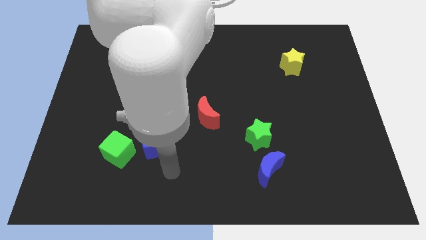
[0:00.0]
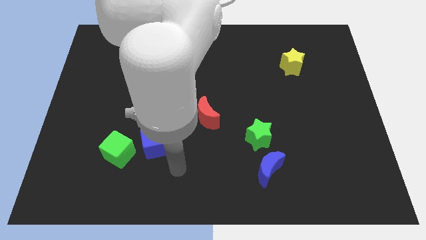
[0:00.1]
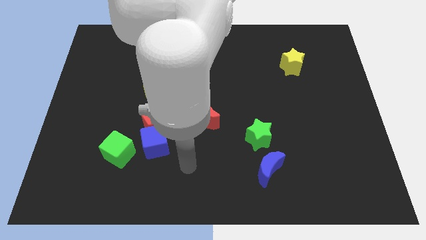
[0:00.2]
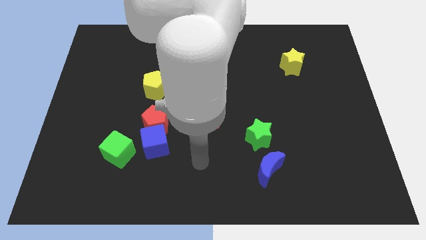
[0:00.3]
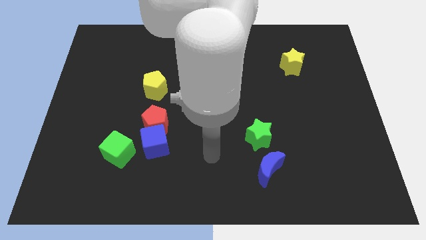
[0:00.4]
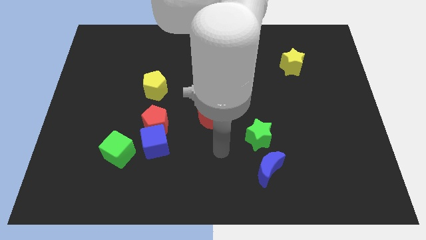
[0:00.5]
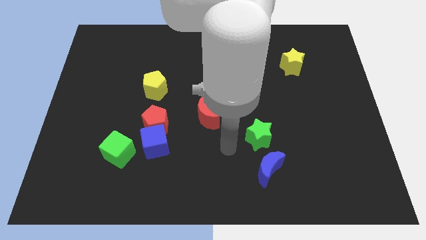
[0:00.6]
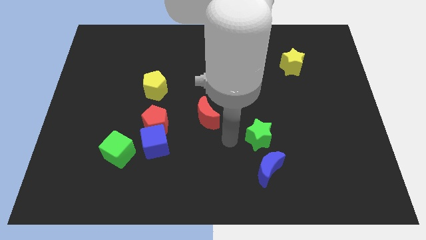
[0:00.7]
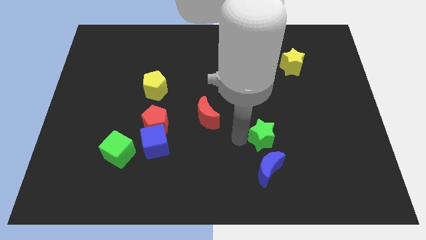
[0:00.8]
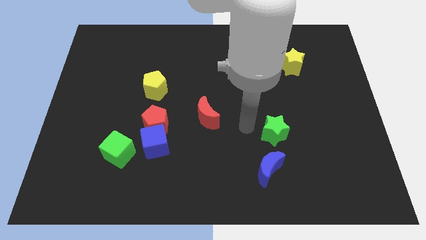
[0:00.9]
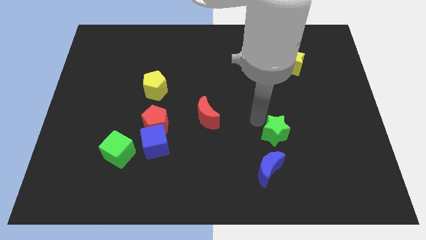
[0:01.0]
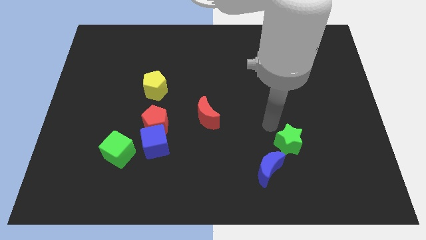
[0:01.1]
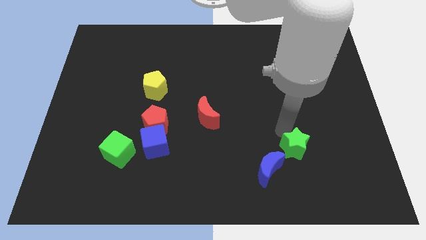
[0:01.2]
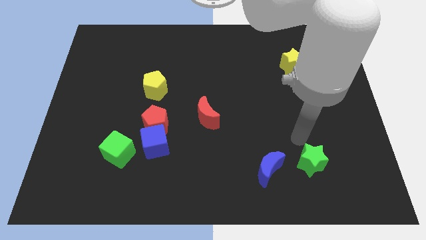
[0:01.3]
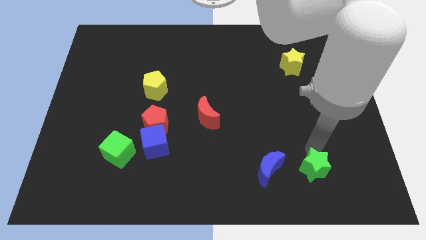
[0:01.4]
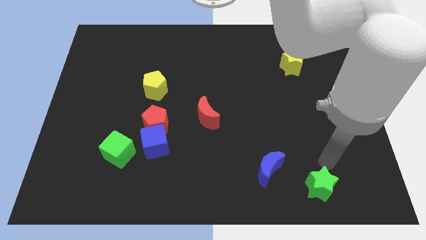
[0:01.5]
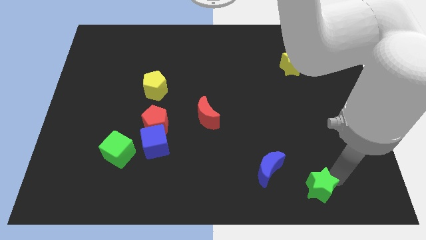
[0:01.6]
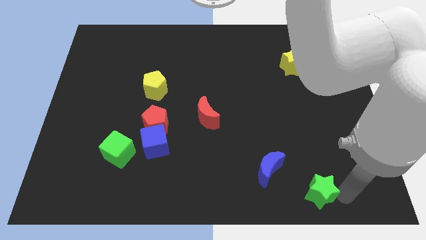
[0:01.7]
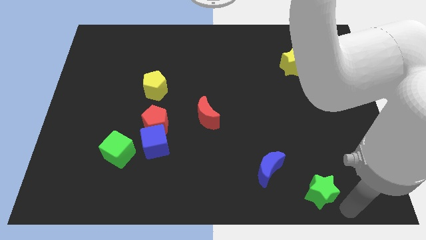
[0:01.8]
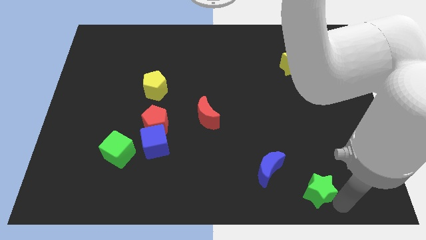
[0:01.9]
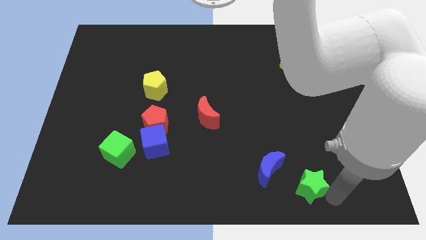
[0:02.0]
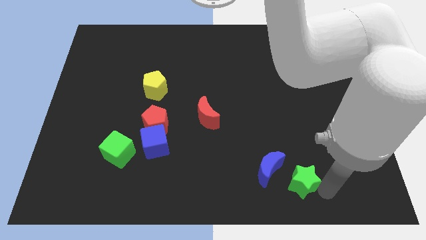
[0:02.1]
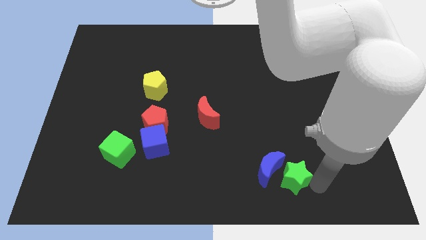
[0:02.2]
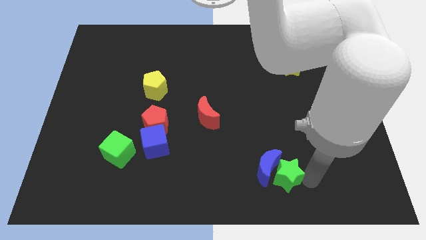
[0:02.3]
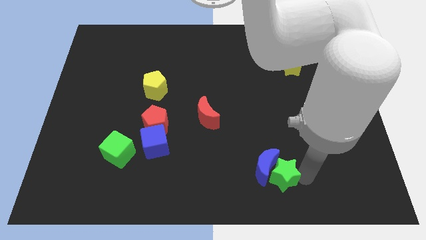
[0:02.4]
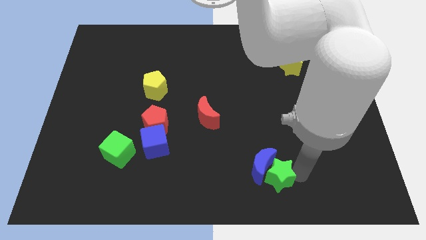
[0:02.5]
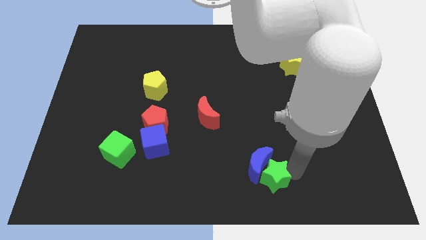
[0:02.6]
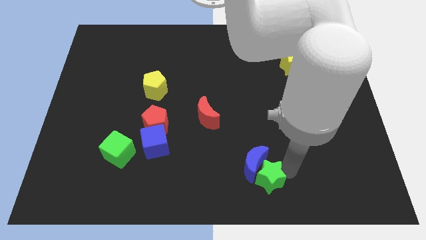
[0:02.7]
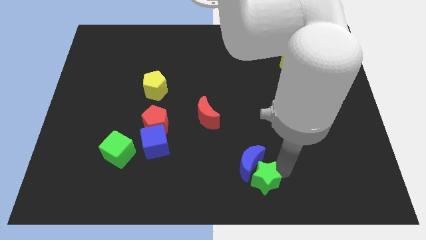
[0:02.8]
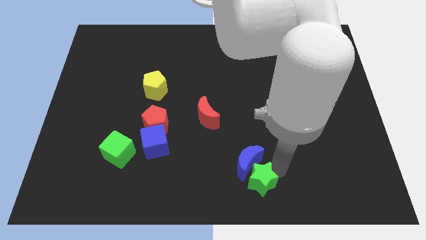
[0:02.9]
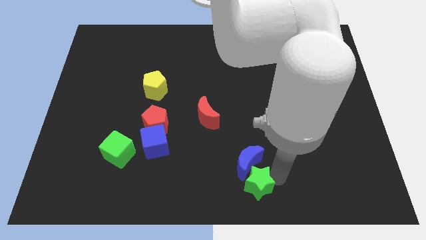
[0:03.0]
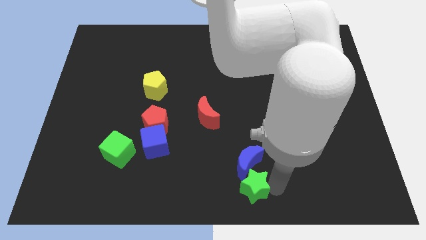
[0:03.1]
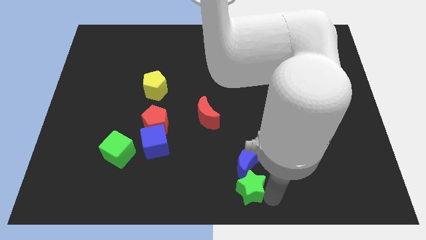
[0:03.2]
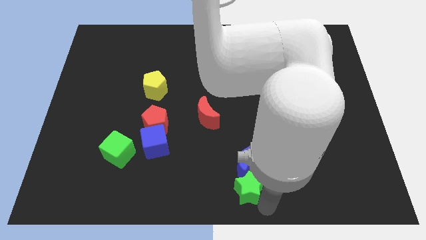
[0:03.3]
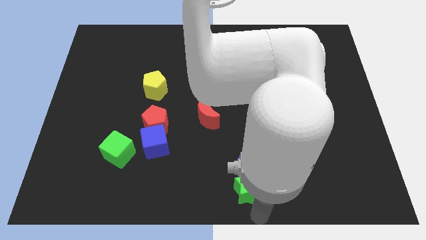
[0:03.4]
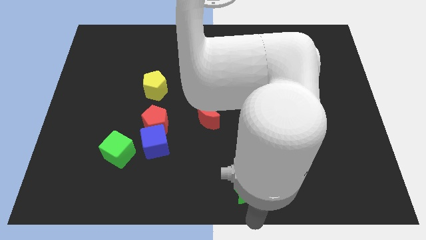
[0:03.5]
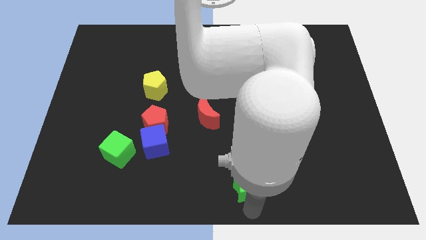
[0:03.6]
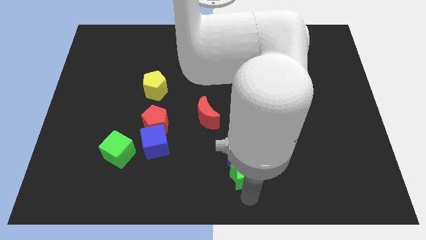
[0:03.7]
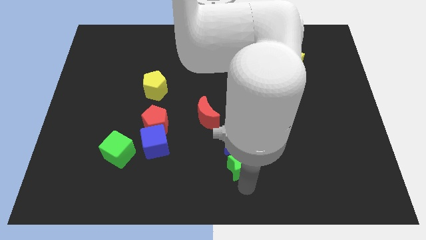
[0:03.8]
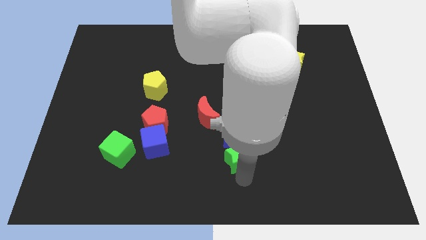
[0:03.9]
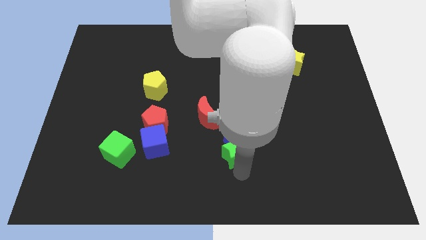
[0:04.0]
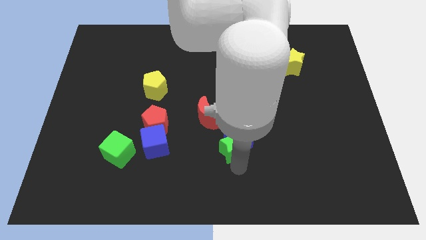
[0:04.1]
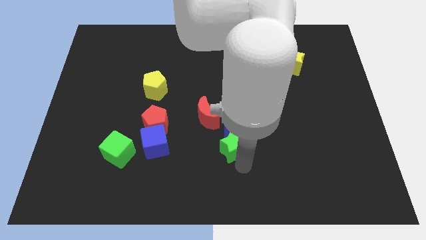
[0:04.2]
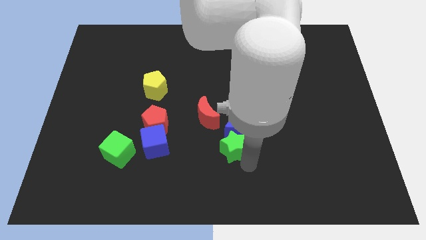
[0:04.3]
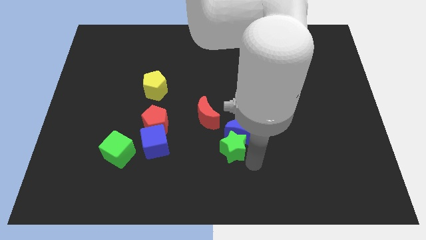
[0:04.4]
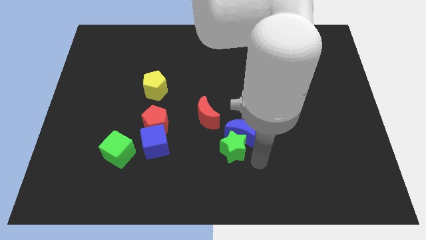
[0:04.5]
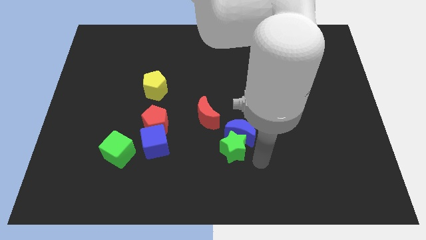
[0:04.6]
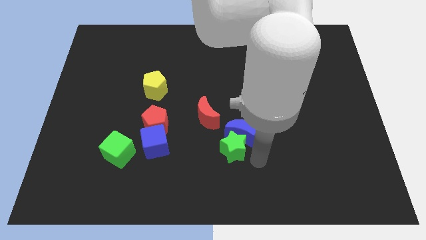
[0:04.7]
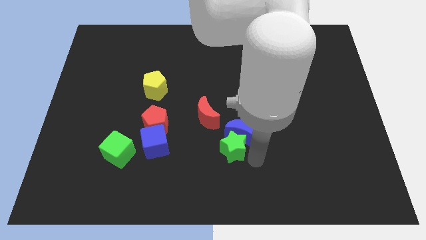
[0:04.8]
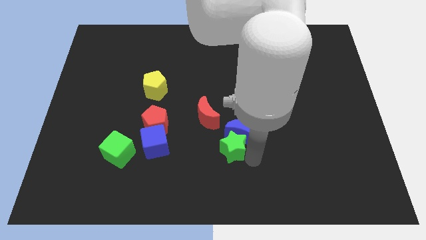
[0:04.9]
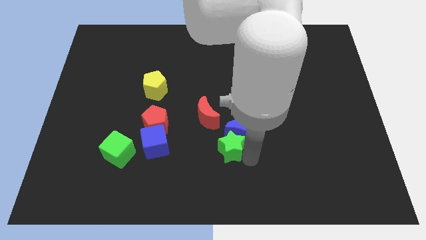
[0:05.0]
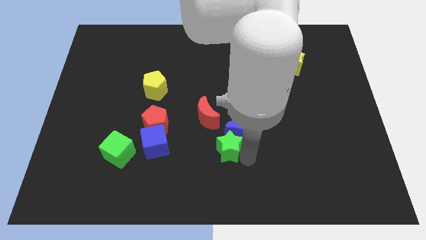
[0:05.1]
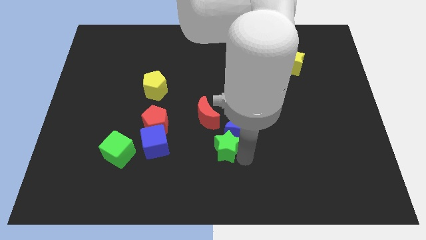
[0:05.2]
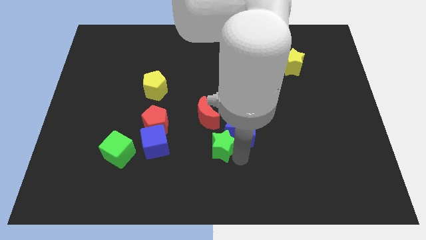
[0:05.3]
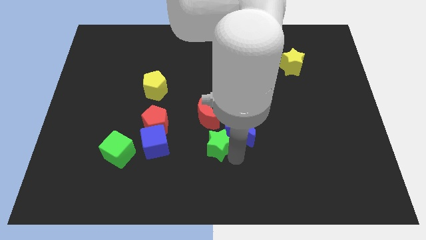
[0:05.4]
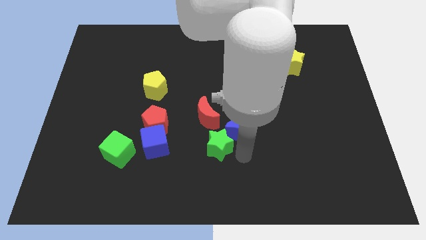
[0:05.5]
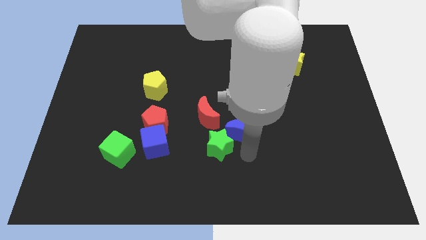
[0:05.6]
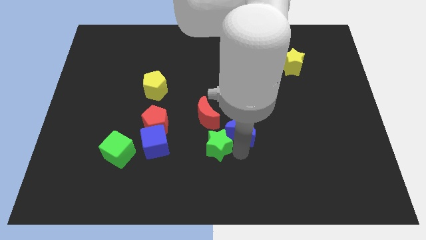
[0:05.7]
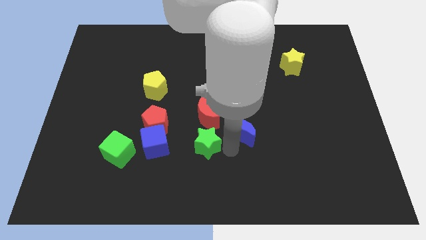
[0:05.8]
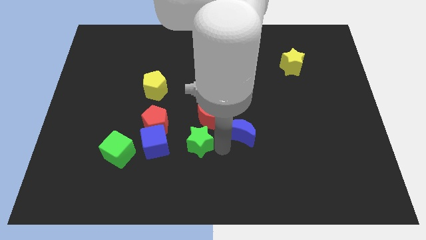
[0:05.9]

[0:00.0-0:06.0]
push the green star diagonally down and to the left of the red moon

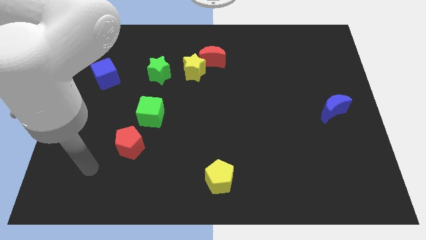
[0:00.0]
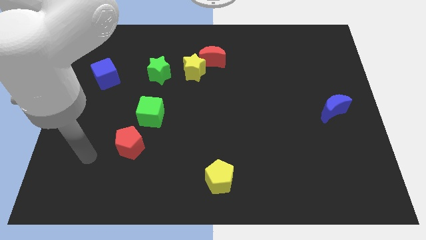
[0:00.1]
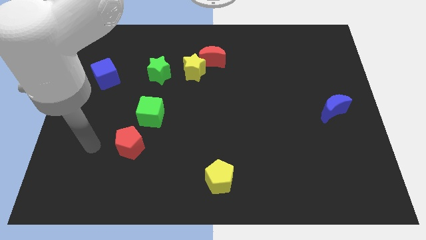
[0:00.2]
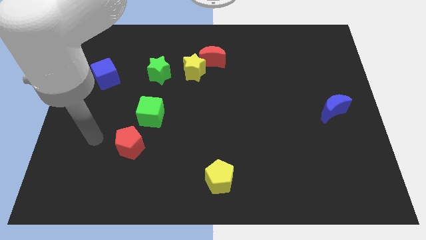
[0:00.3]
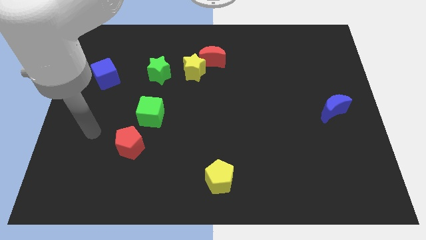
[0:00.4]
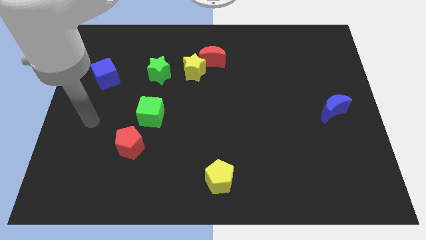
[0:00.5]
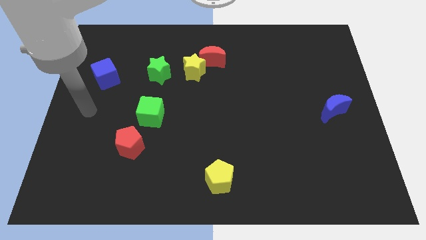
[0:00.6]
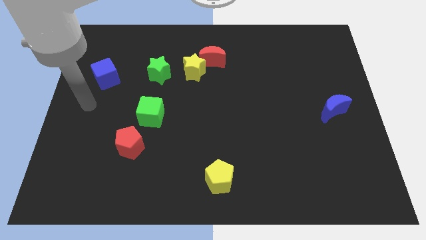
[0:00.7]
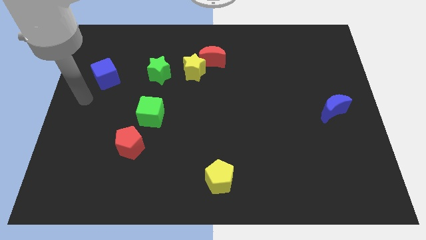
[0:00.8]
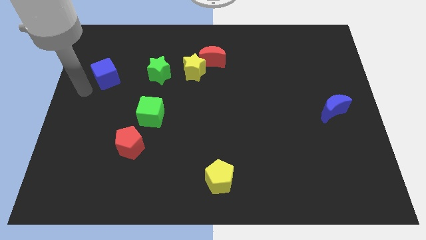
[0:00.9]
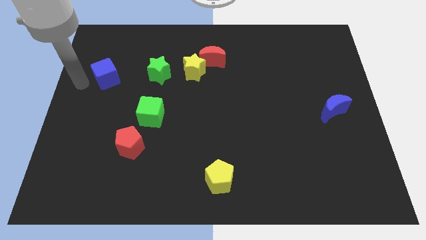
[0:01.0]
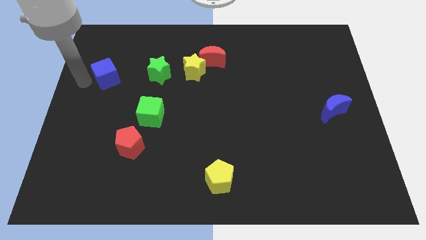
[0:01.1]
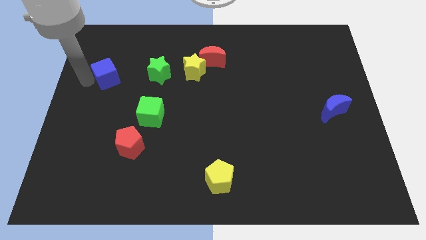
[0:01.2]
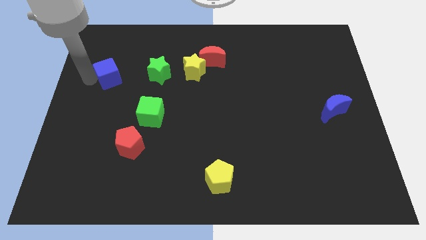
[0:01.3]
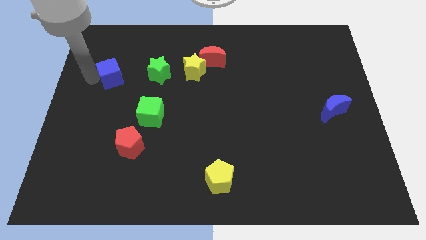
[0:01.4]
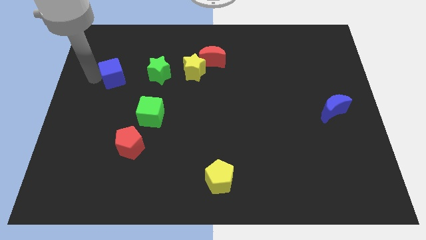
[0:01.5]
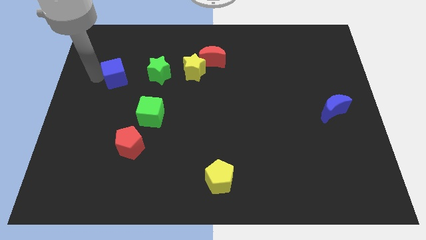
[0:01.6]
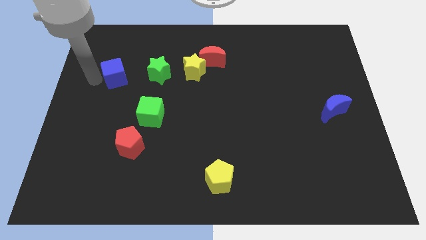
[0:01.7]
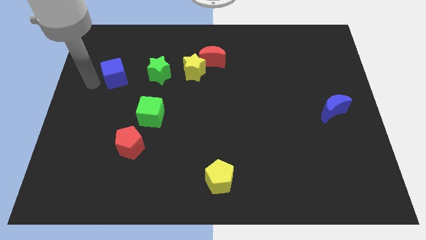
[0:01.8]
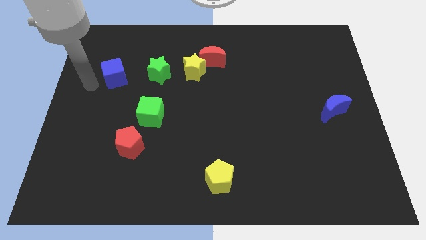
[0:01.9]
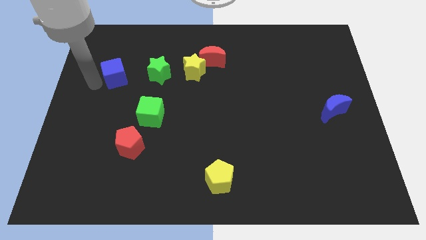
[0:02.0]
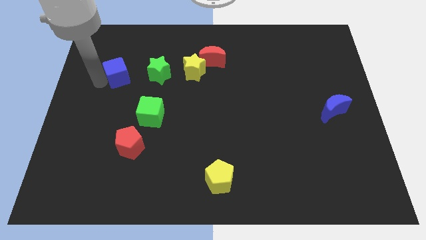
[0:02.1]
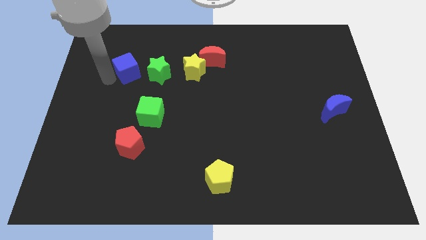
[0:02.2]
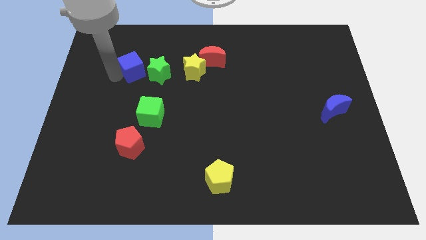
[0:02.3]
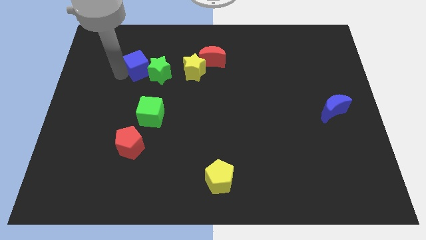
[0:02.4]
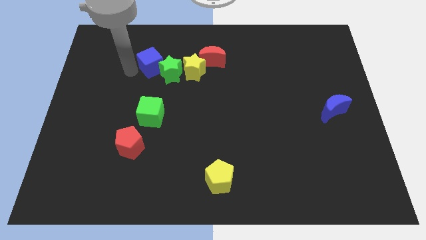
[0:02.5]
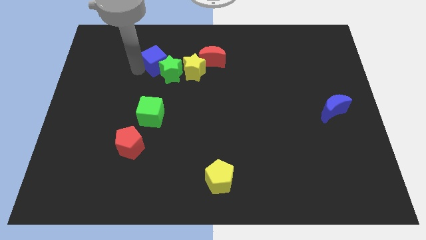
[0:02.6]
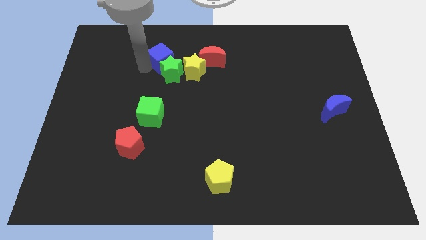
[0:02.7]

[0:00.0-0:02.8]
slide the blue cube to the top left side of the yellow star
